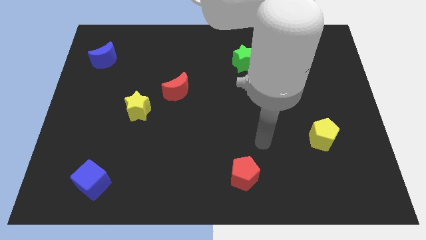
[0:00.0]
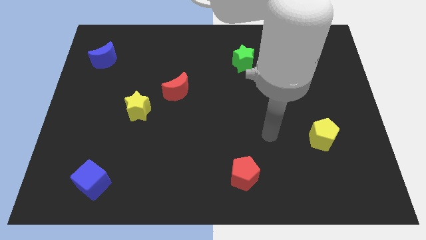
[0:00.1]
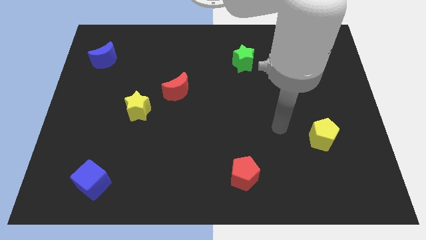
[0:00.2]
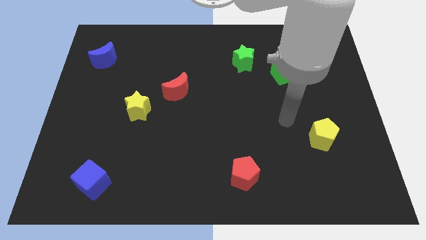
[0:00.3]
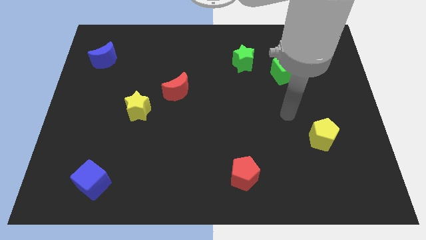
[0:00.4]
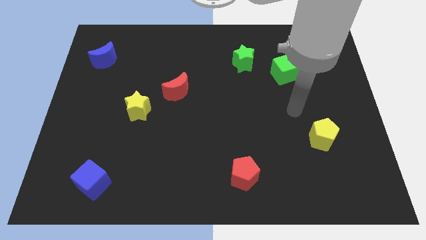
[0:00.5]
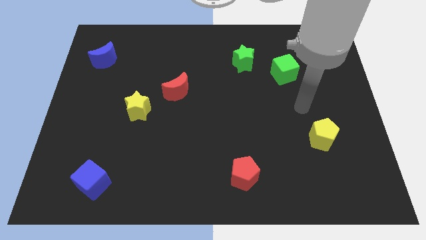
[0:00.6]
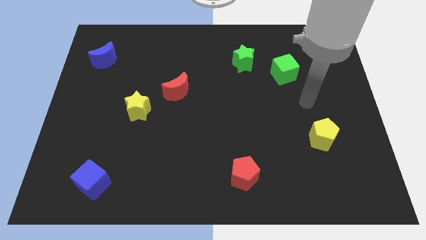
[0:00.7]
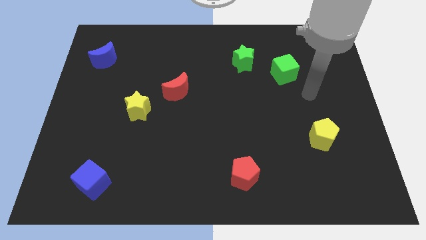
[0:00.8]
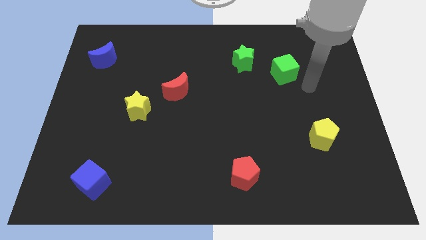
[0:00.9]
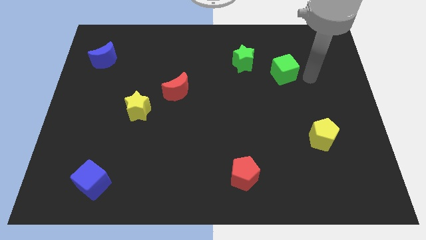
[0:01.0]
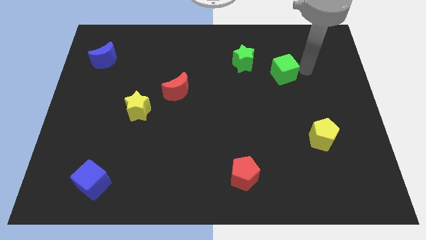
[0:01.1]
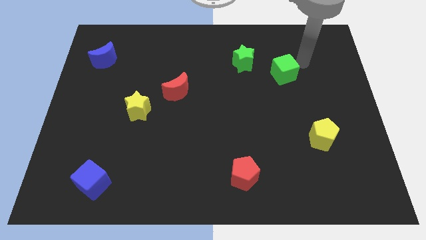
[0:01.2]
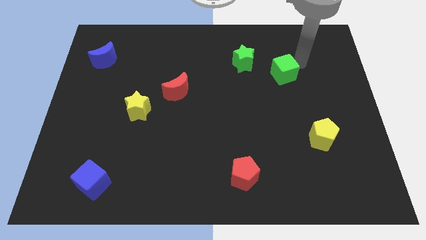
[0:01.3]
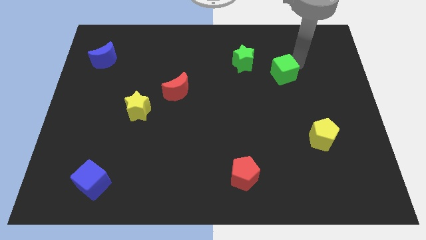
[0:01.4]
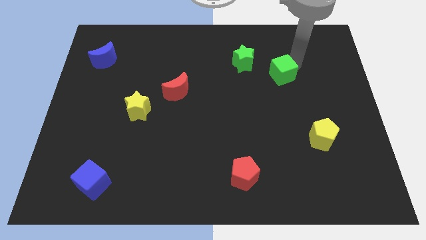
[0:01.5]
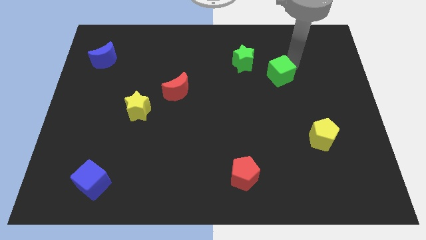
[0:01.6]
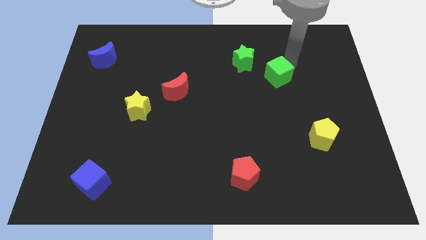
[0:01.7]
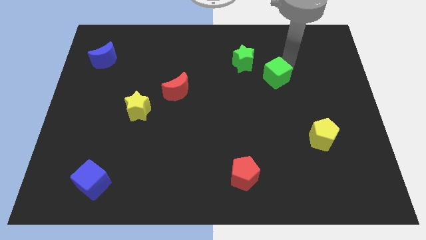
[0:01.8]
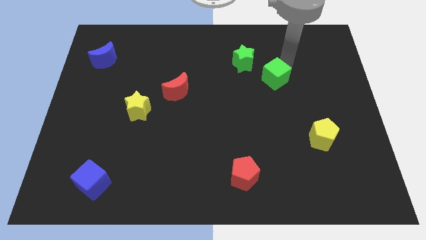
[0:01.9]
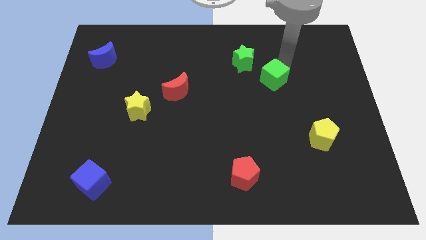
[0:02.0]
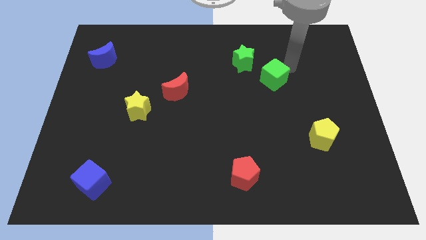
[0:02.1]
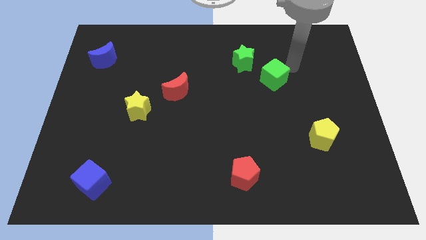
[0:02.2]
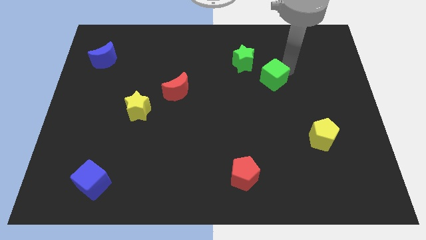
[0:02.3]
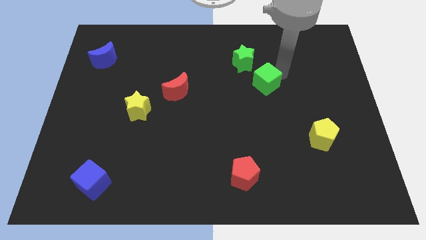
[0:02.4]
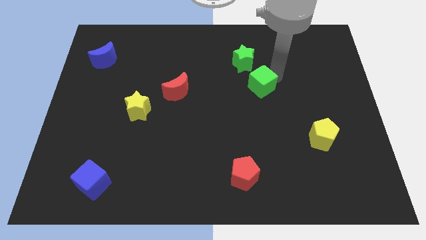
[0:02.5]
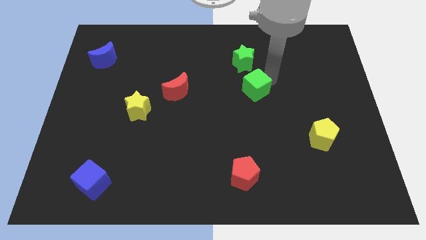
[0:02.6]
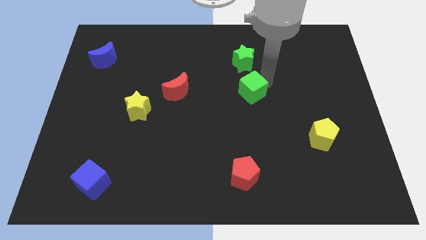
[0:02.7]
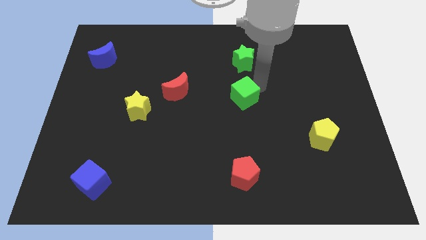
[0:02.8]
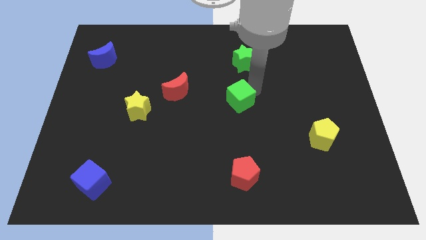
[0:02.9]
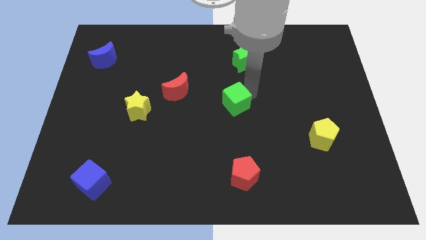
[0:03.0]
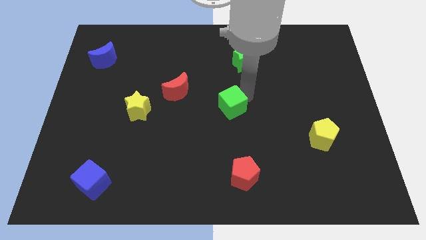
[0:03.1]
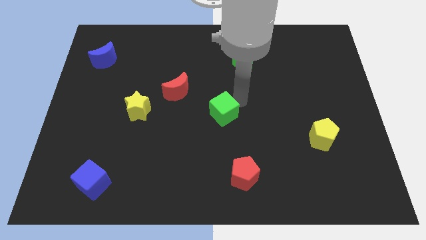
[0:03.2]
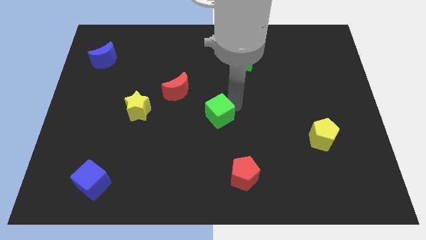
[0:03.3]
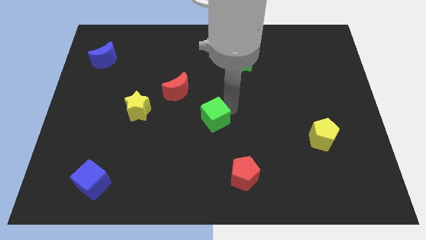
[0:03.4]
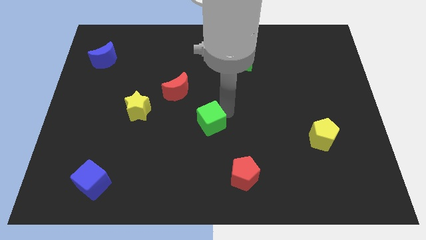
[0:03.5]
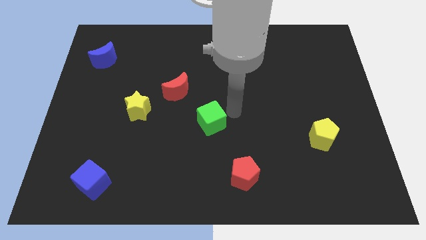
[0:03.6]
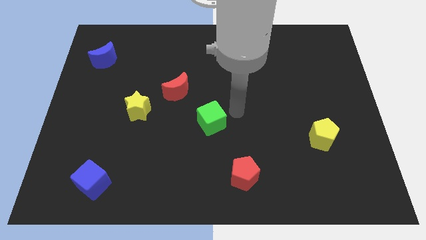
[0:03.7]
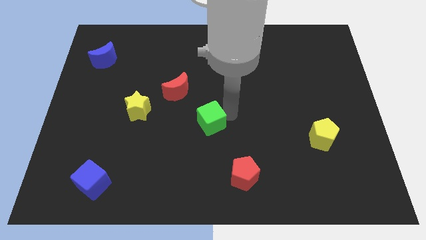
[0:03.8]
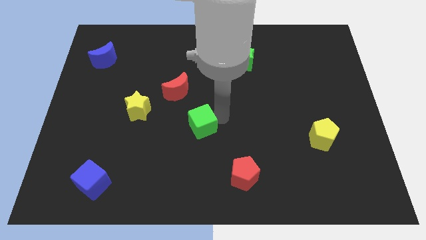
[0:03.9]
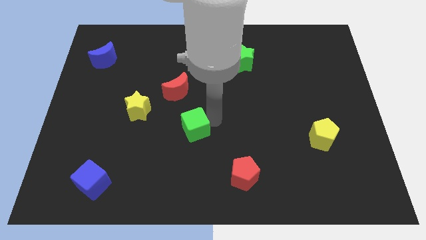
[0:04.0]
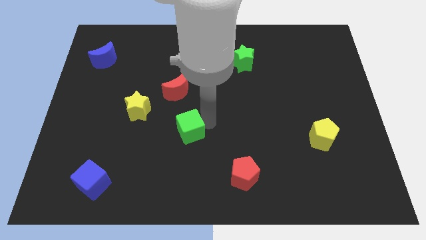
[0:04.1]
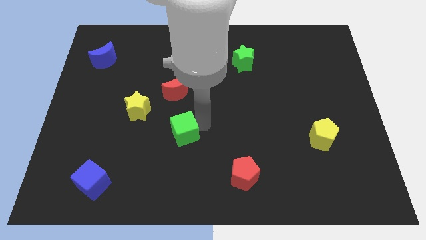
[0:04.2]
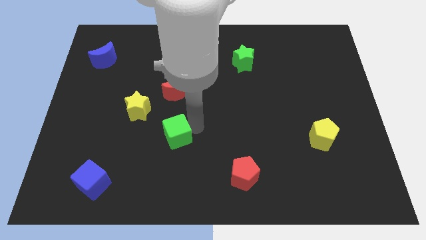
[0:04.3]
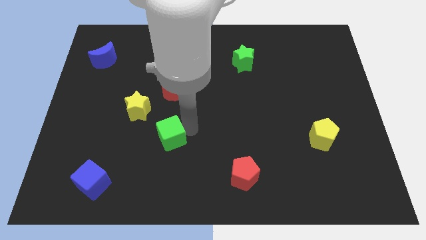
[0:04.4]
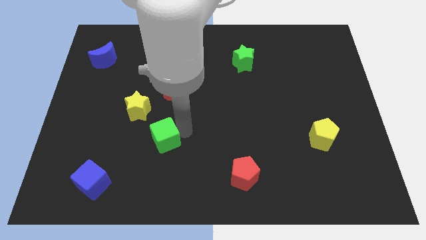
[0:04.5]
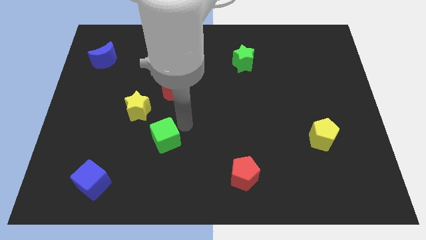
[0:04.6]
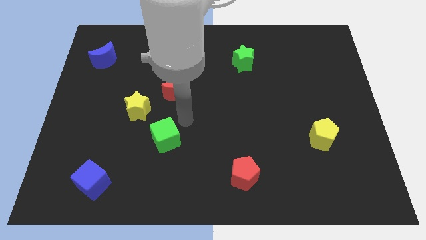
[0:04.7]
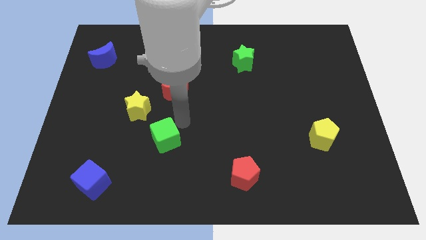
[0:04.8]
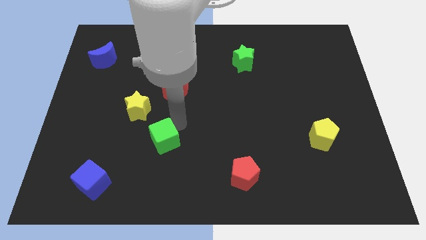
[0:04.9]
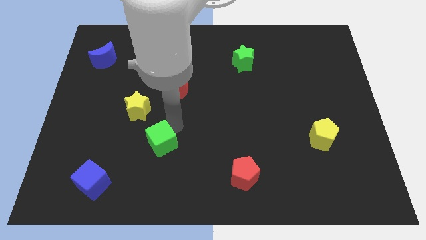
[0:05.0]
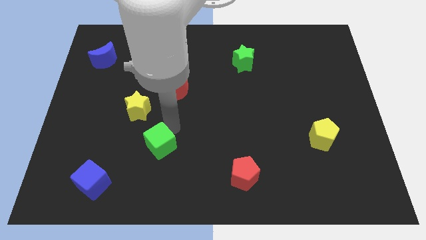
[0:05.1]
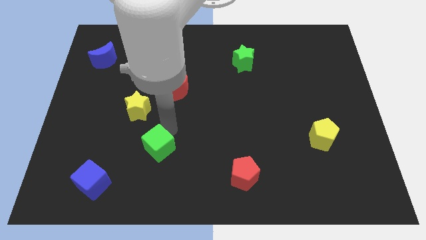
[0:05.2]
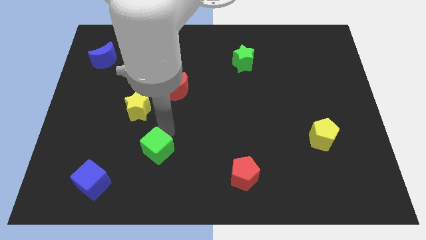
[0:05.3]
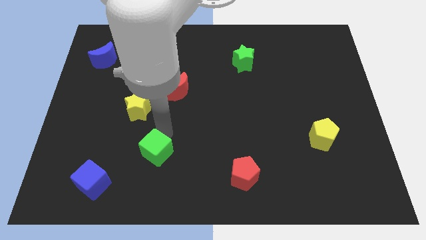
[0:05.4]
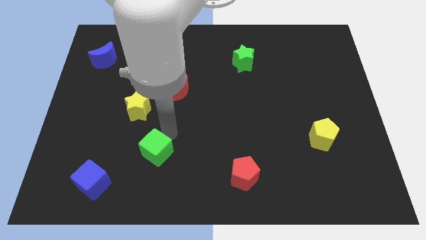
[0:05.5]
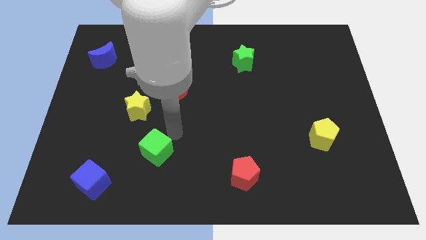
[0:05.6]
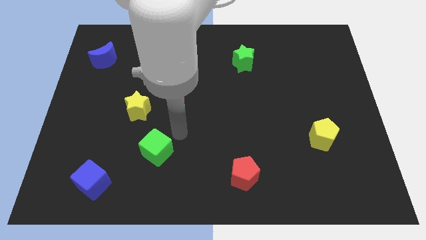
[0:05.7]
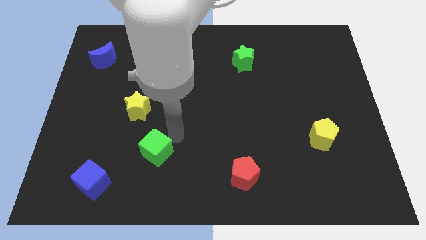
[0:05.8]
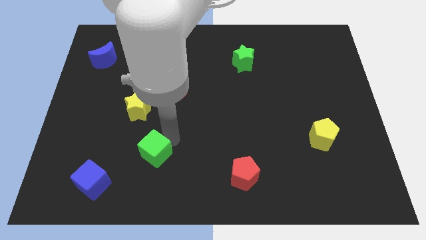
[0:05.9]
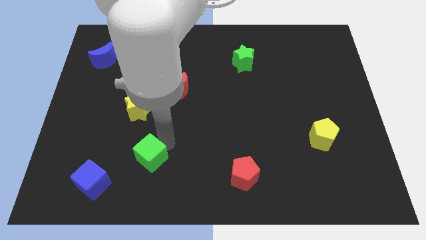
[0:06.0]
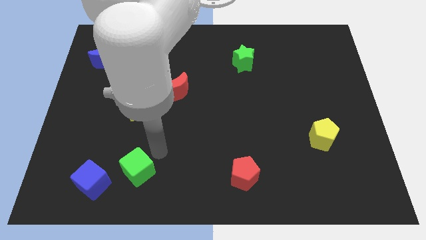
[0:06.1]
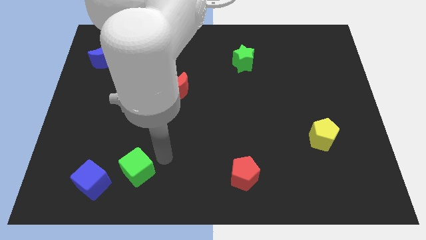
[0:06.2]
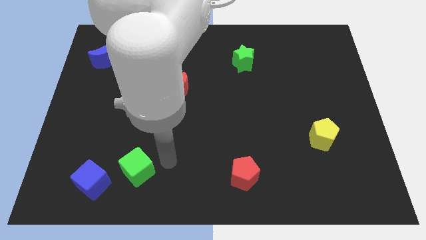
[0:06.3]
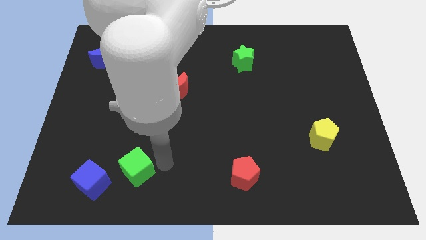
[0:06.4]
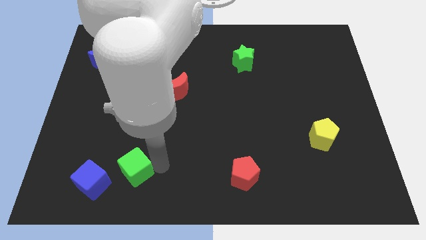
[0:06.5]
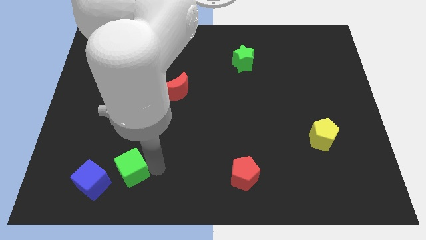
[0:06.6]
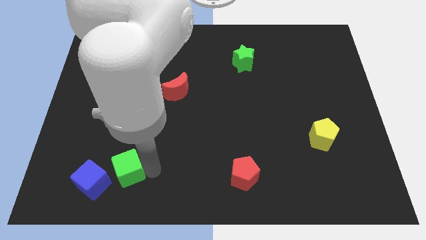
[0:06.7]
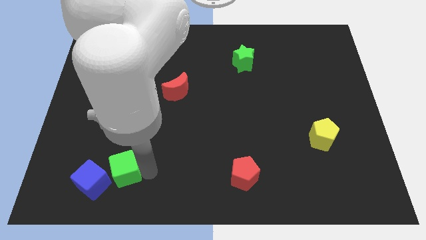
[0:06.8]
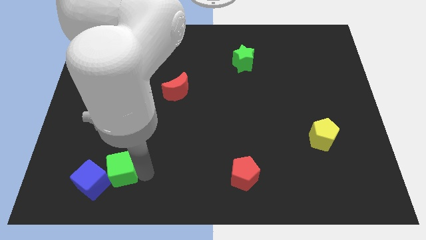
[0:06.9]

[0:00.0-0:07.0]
slide the green cube to the blue cube

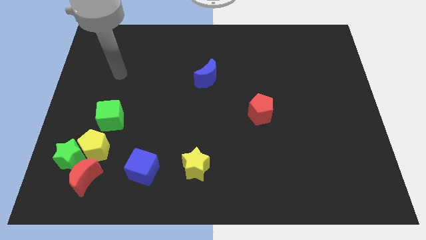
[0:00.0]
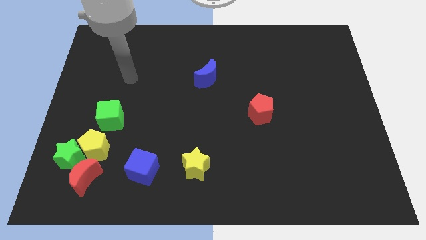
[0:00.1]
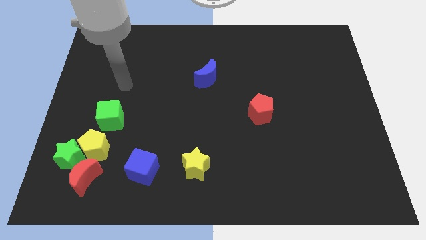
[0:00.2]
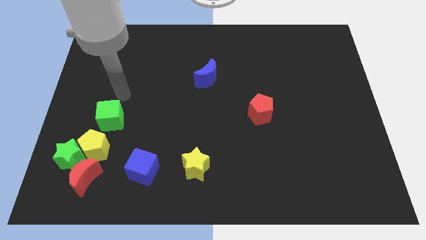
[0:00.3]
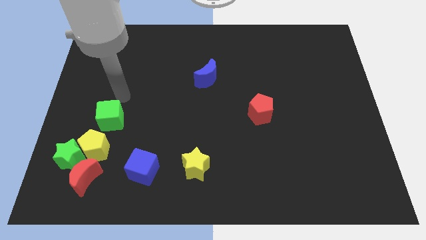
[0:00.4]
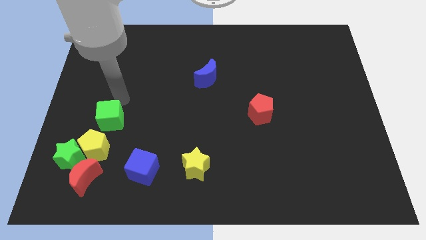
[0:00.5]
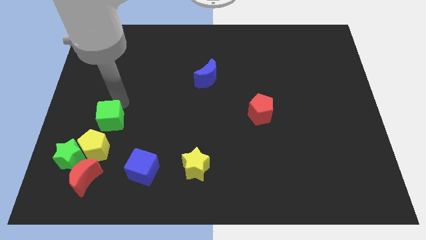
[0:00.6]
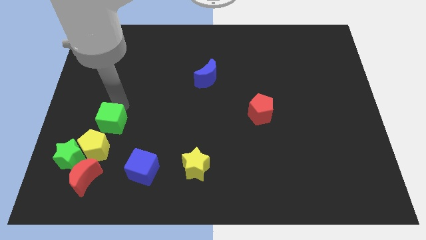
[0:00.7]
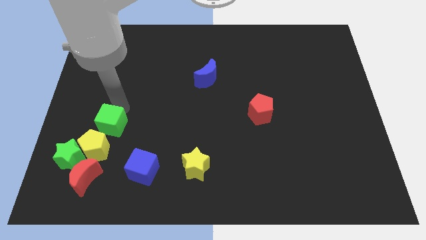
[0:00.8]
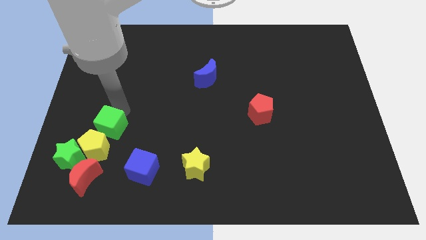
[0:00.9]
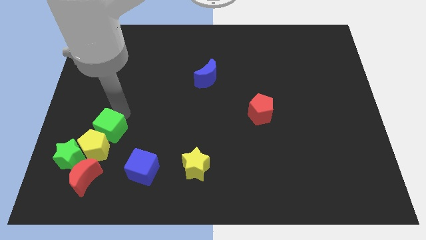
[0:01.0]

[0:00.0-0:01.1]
slide the green cube close to the yellow pentagon
